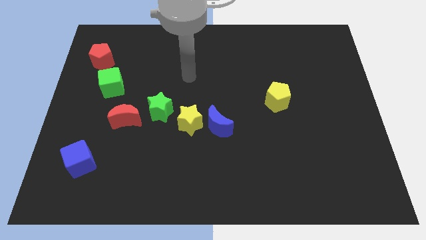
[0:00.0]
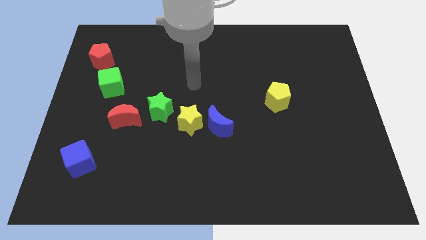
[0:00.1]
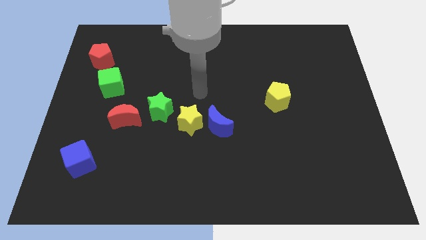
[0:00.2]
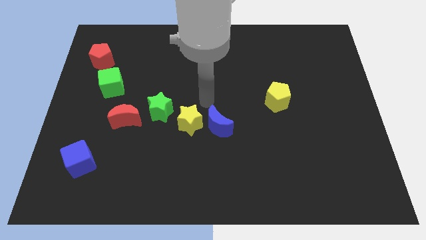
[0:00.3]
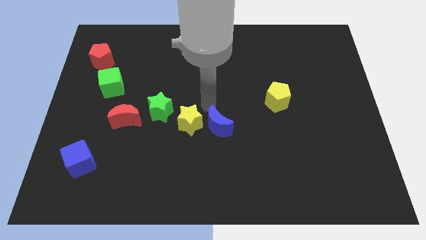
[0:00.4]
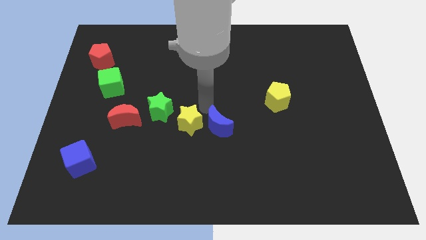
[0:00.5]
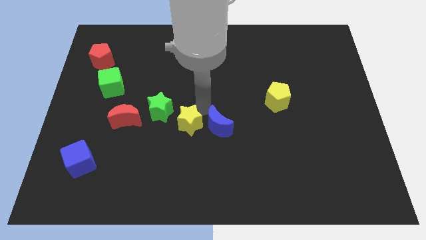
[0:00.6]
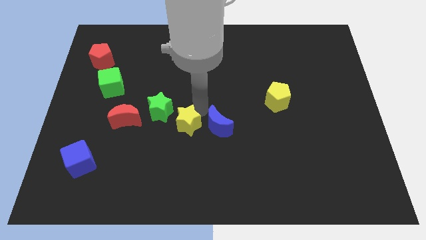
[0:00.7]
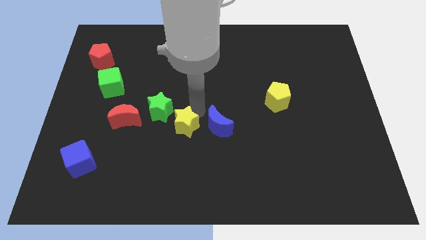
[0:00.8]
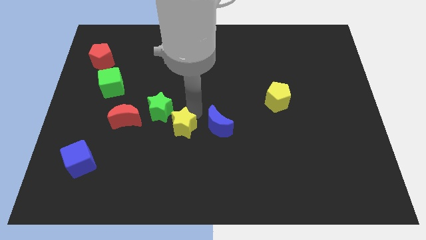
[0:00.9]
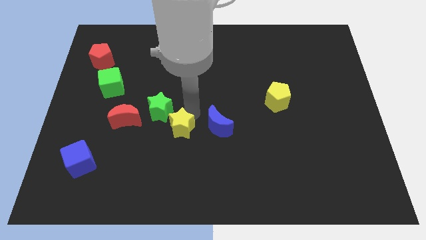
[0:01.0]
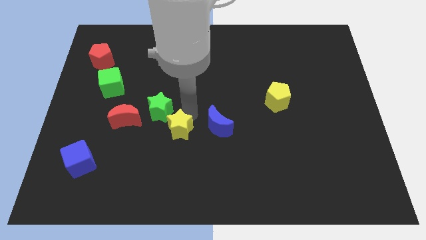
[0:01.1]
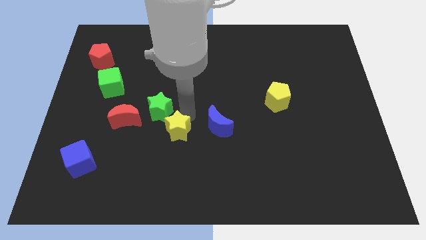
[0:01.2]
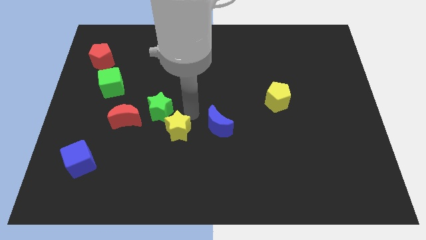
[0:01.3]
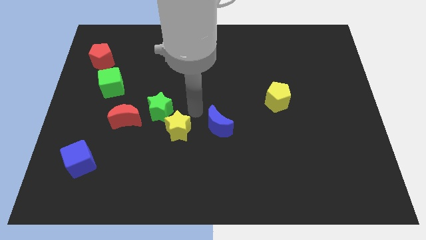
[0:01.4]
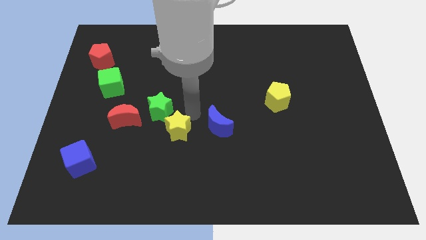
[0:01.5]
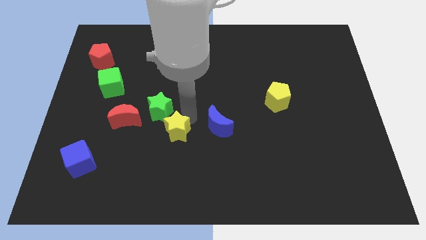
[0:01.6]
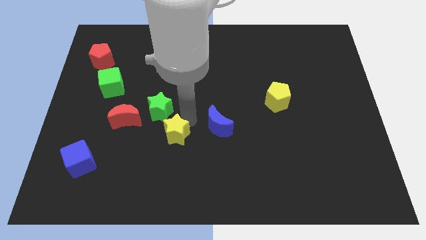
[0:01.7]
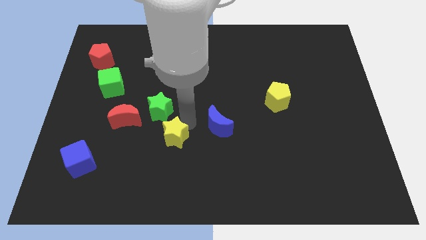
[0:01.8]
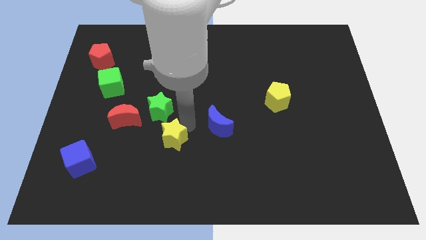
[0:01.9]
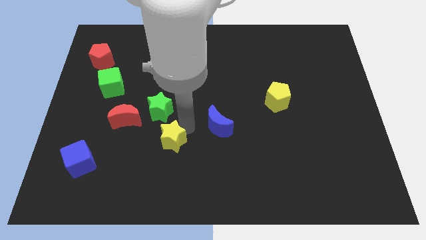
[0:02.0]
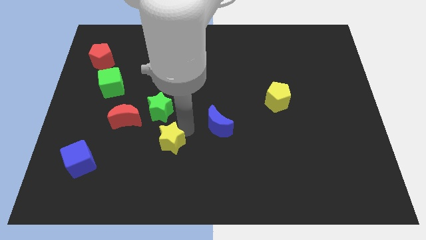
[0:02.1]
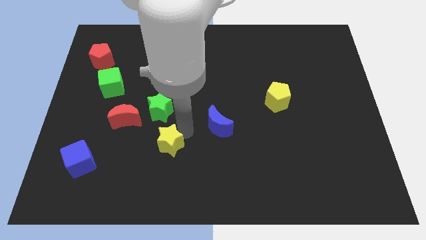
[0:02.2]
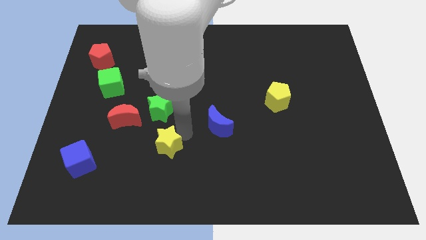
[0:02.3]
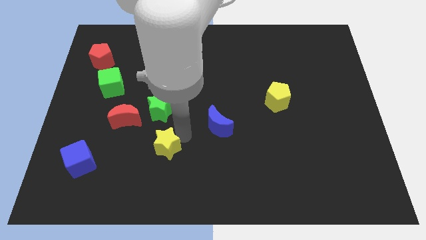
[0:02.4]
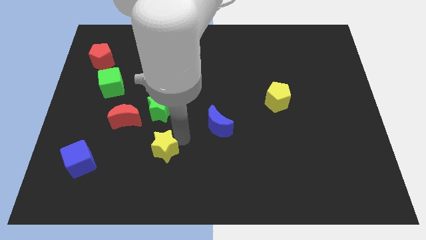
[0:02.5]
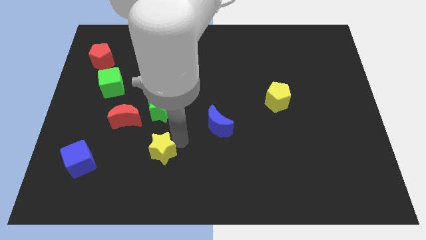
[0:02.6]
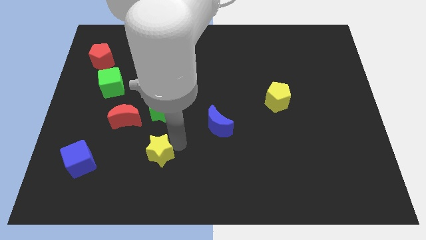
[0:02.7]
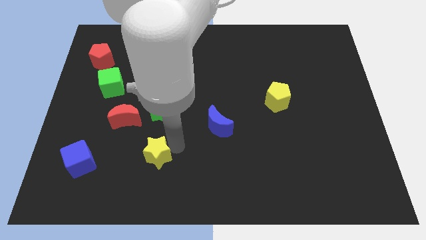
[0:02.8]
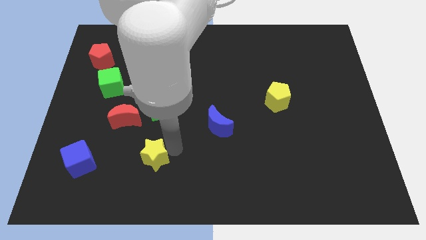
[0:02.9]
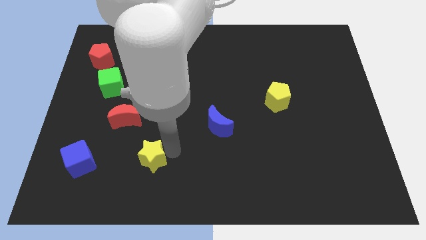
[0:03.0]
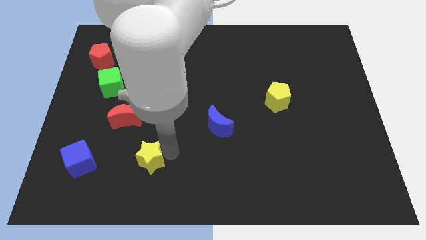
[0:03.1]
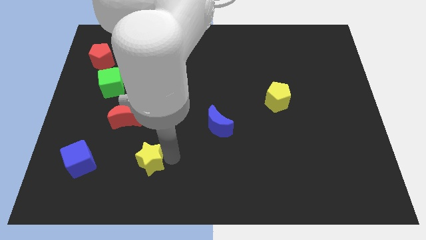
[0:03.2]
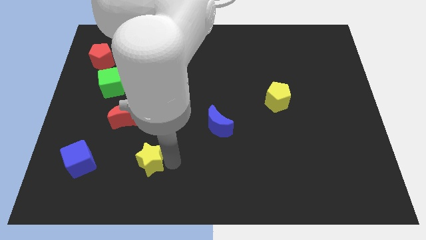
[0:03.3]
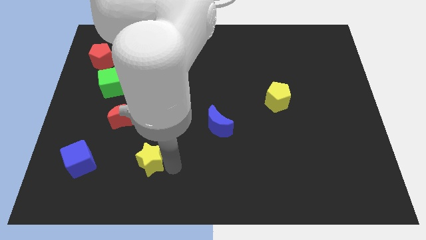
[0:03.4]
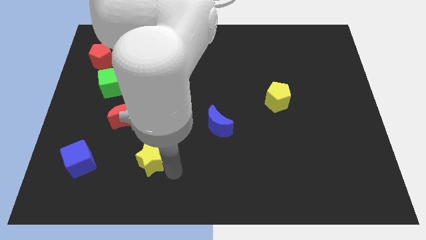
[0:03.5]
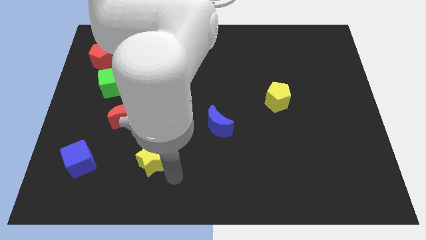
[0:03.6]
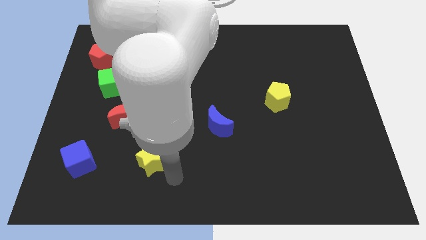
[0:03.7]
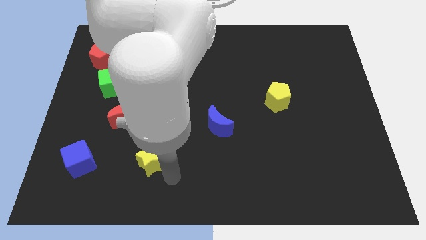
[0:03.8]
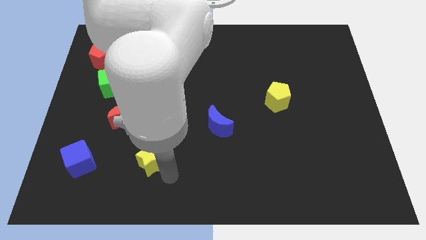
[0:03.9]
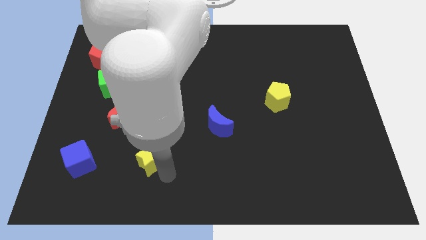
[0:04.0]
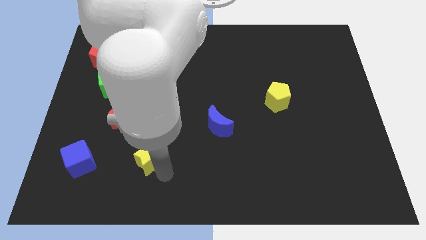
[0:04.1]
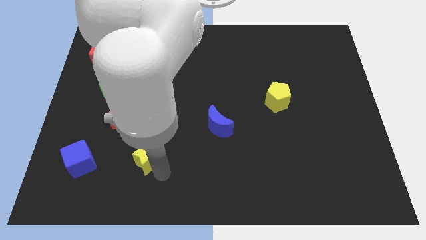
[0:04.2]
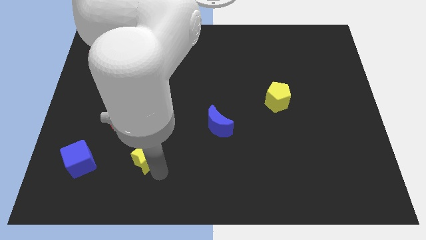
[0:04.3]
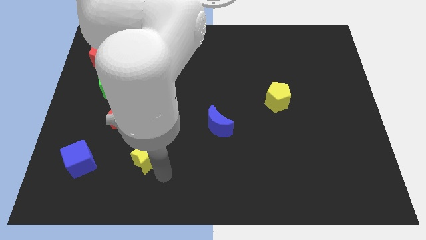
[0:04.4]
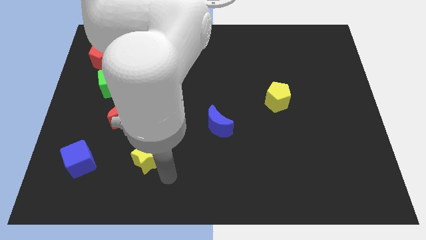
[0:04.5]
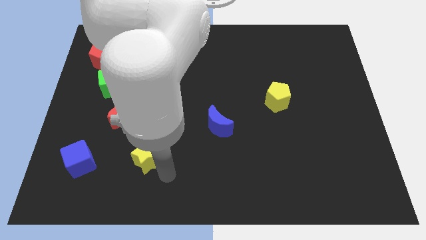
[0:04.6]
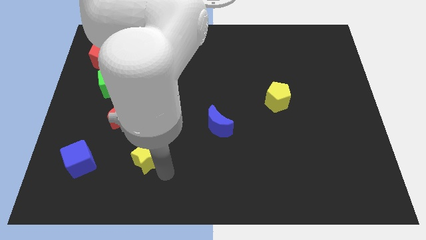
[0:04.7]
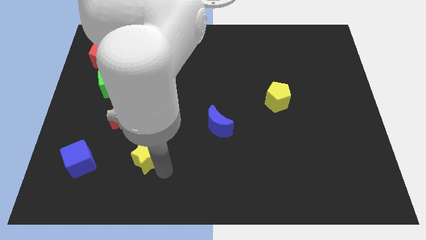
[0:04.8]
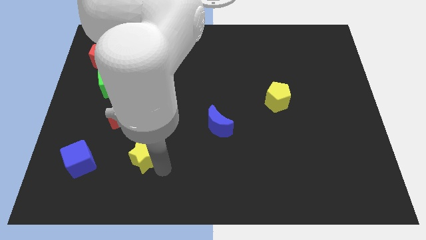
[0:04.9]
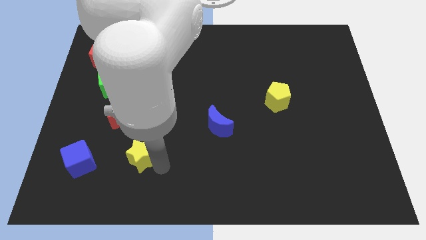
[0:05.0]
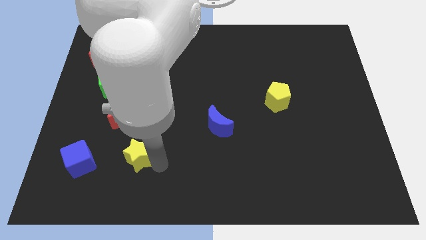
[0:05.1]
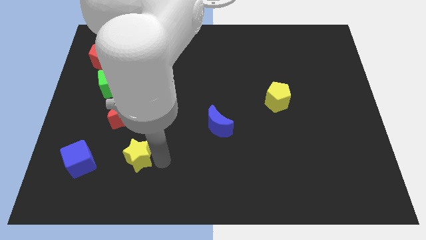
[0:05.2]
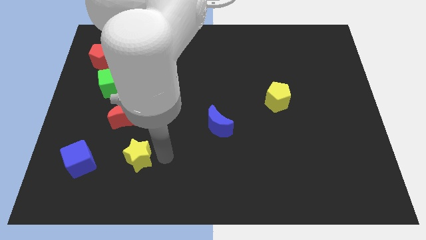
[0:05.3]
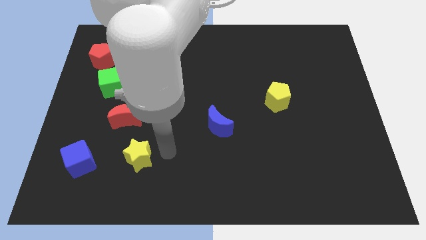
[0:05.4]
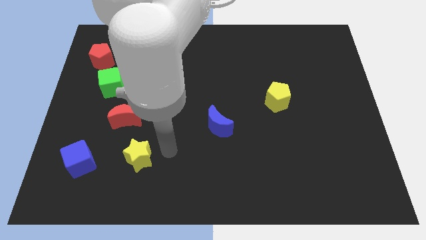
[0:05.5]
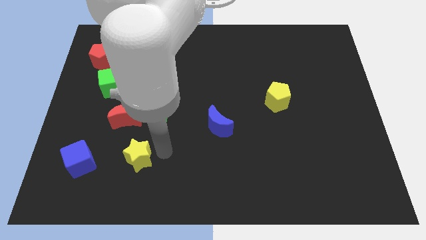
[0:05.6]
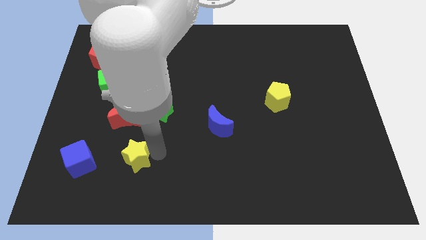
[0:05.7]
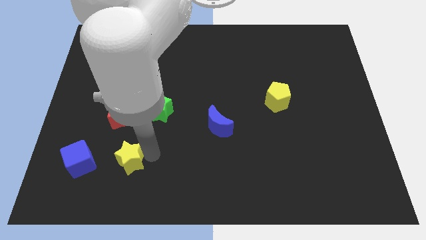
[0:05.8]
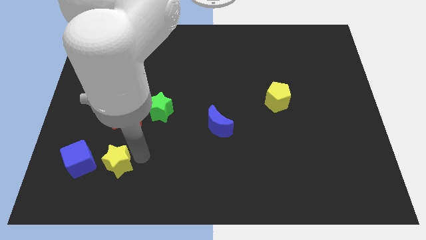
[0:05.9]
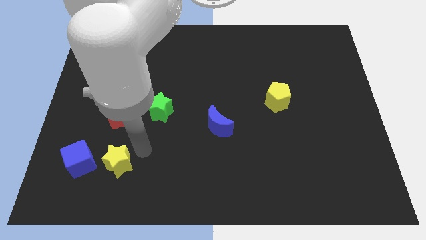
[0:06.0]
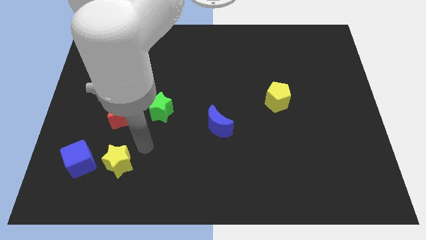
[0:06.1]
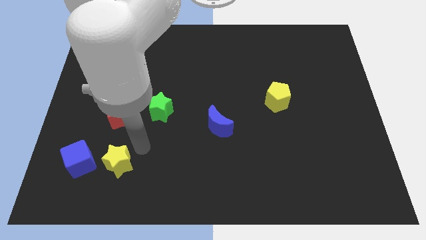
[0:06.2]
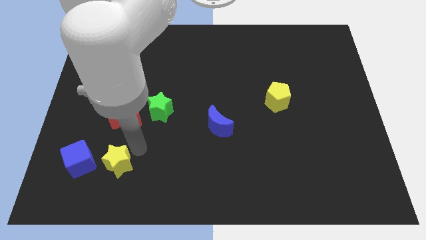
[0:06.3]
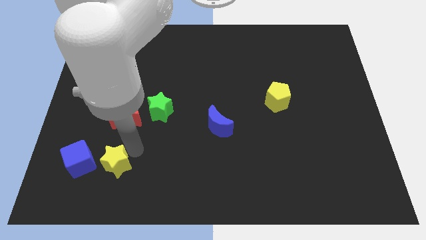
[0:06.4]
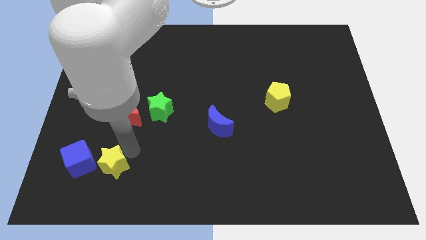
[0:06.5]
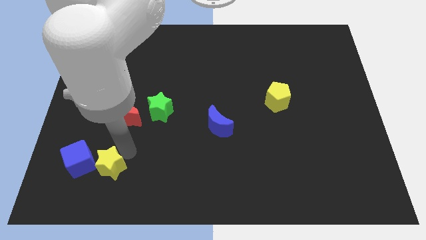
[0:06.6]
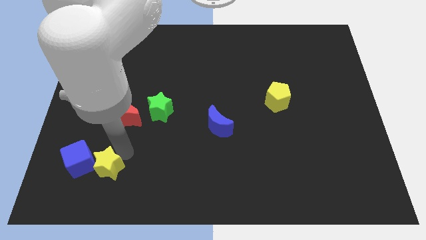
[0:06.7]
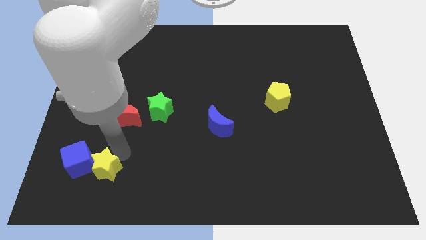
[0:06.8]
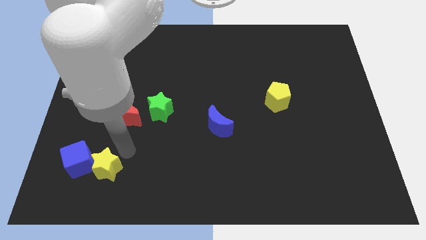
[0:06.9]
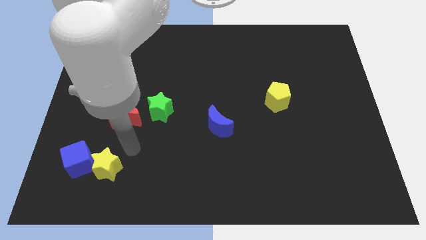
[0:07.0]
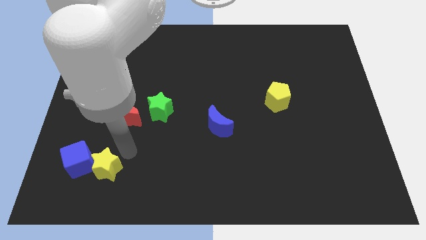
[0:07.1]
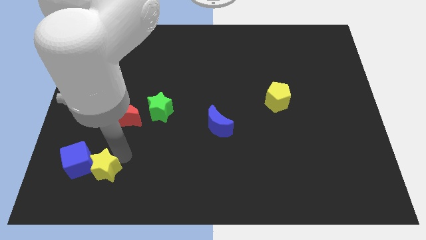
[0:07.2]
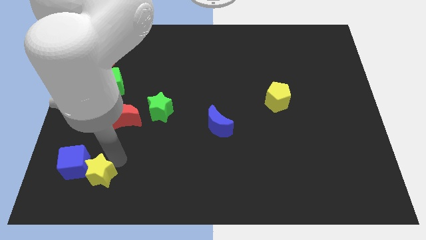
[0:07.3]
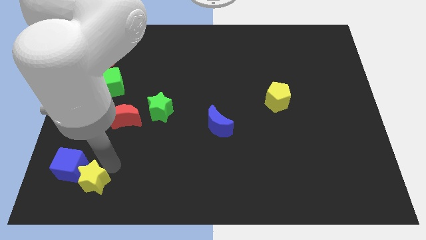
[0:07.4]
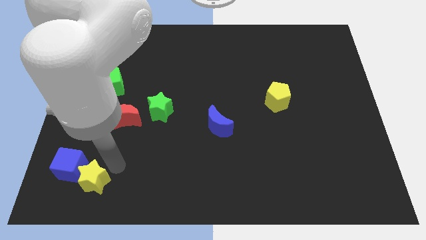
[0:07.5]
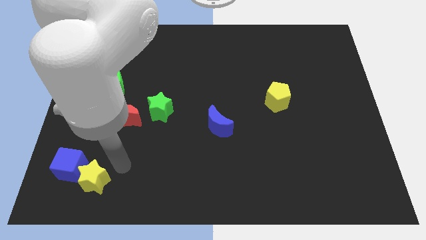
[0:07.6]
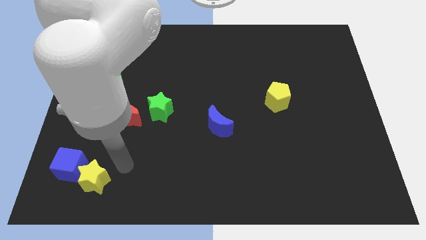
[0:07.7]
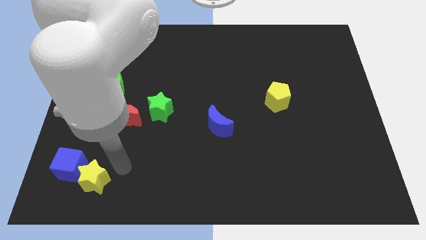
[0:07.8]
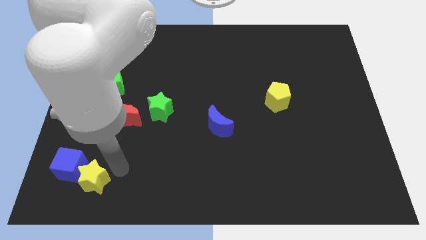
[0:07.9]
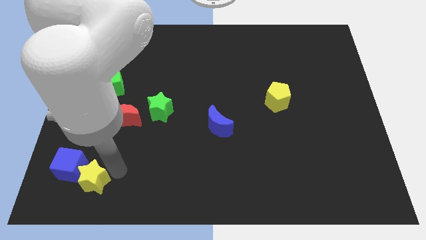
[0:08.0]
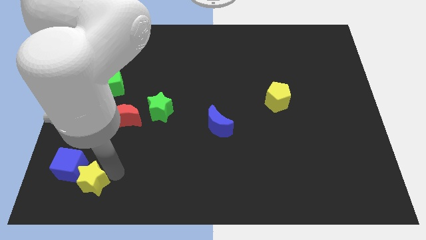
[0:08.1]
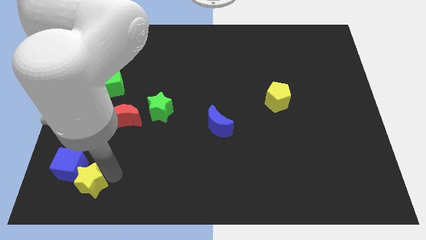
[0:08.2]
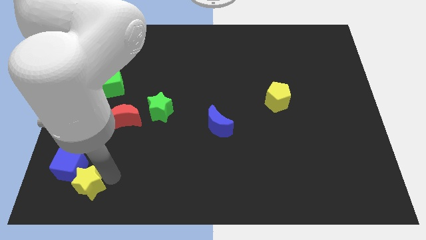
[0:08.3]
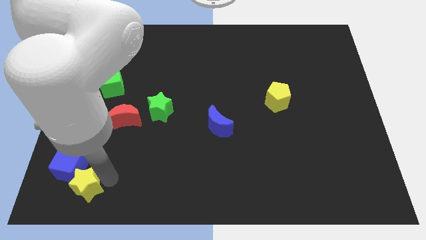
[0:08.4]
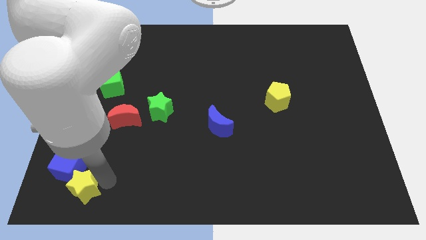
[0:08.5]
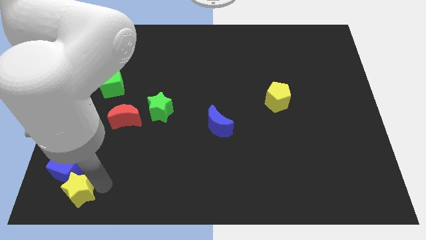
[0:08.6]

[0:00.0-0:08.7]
move the yellow star to the lower left corner
